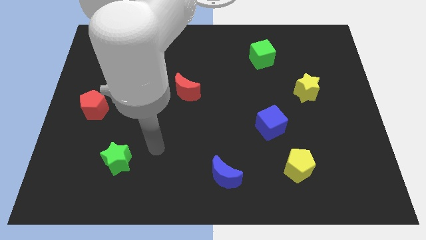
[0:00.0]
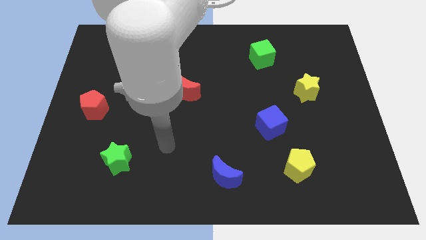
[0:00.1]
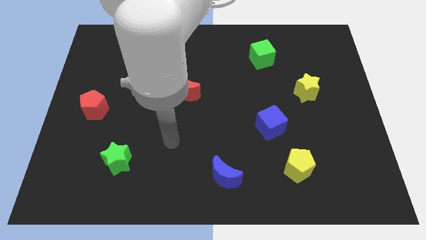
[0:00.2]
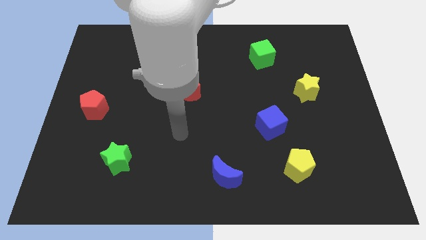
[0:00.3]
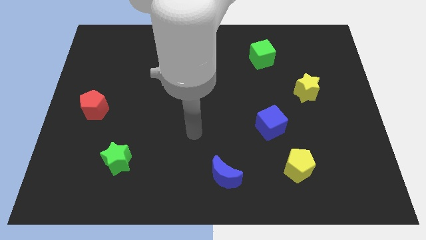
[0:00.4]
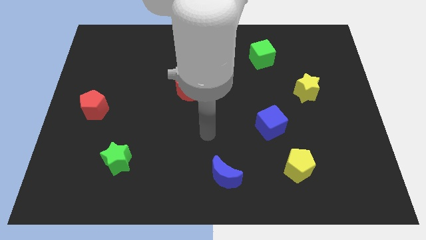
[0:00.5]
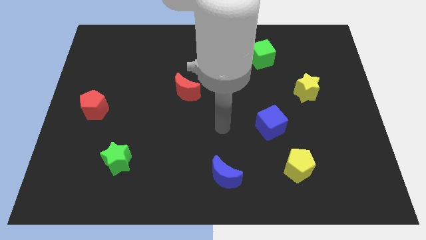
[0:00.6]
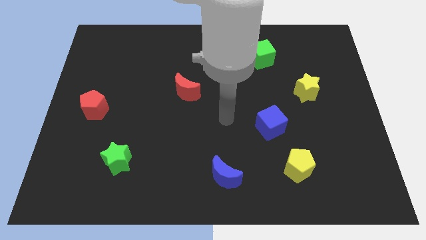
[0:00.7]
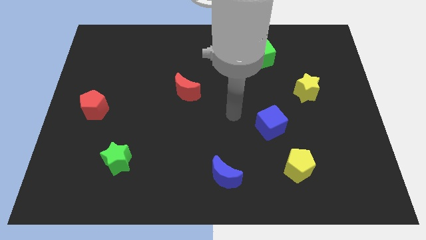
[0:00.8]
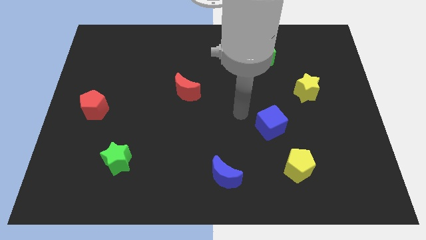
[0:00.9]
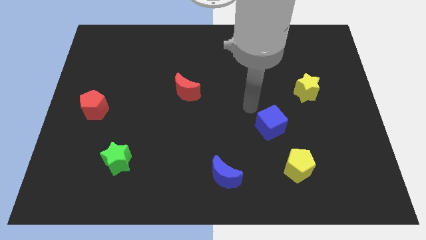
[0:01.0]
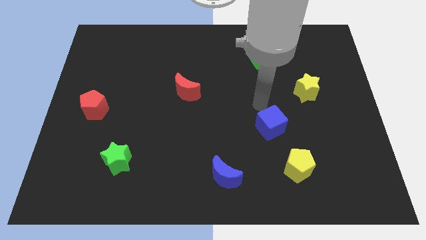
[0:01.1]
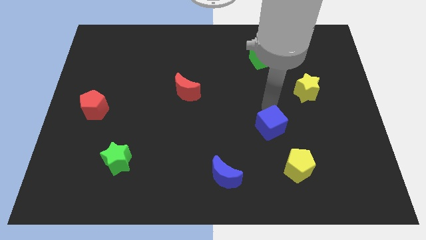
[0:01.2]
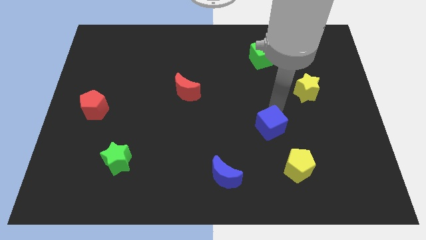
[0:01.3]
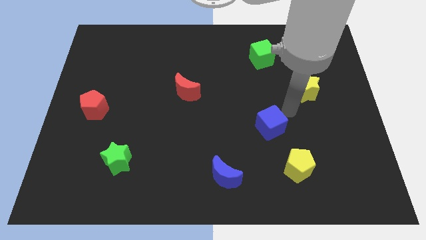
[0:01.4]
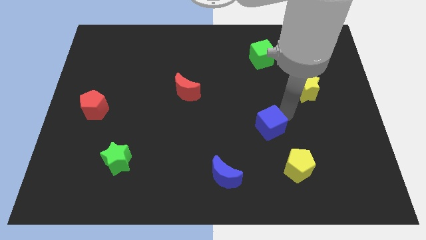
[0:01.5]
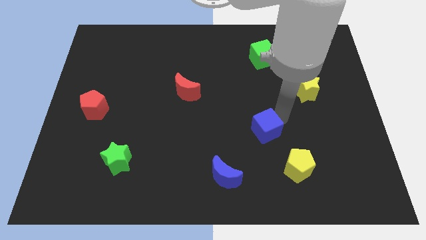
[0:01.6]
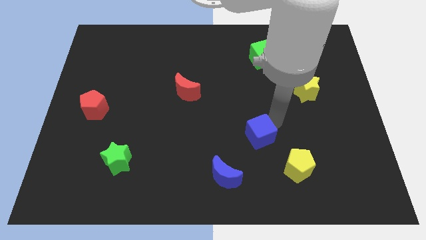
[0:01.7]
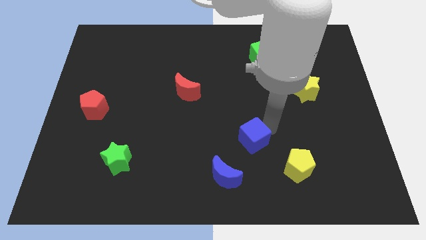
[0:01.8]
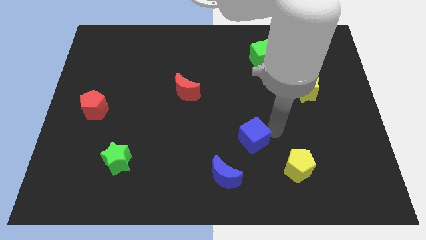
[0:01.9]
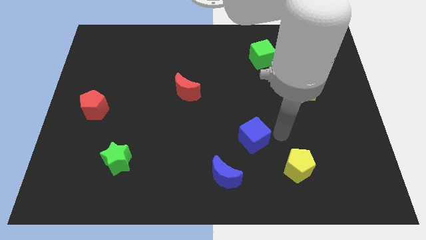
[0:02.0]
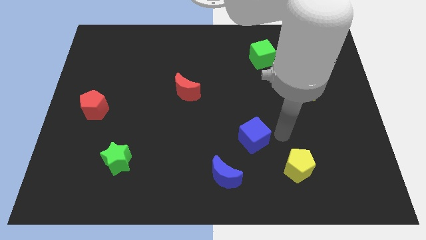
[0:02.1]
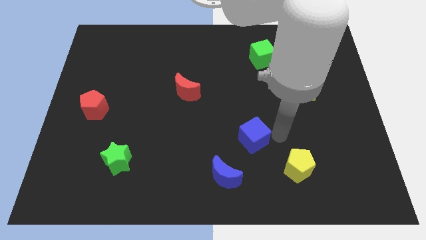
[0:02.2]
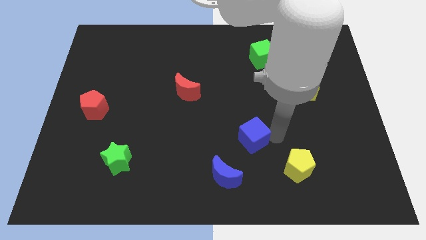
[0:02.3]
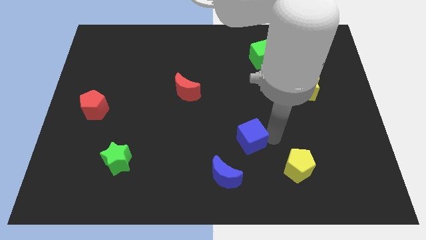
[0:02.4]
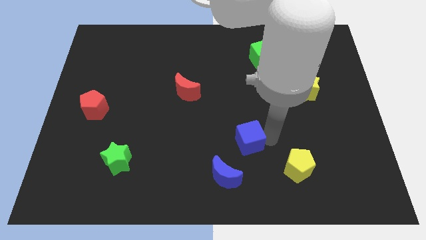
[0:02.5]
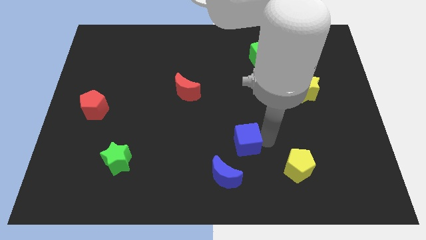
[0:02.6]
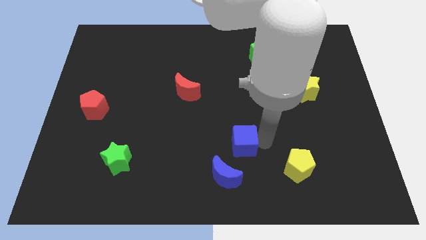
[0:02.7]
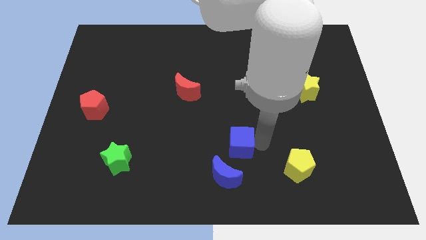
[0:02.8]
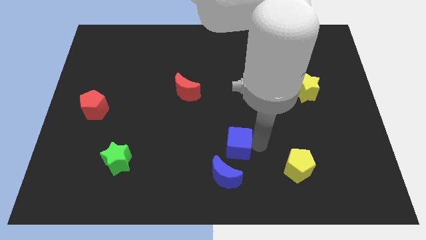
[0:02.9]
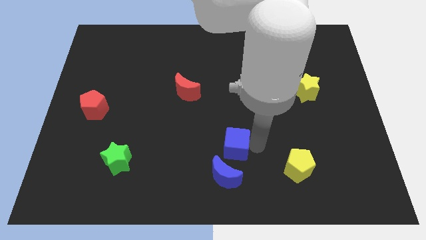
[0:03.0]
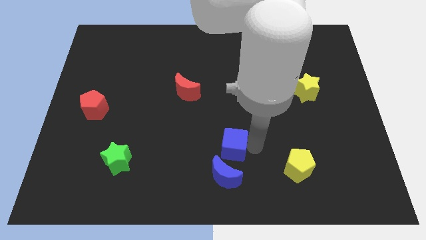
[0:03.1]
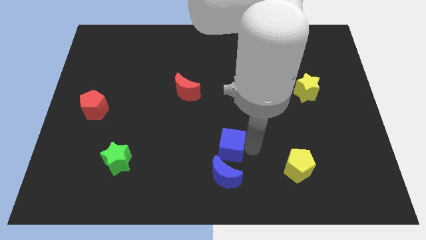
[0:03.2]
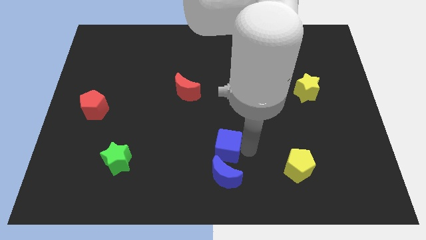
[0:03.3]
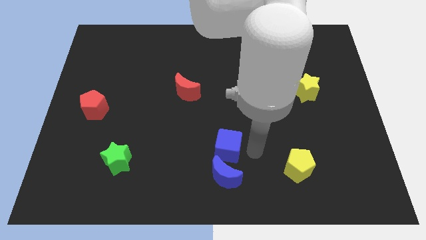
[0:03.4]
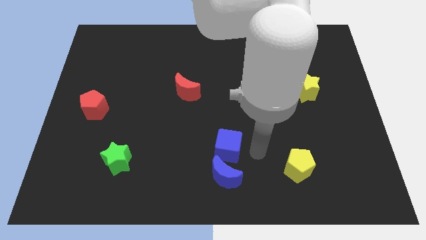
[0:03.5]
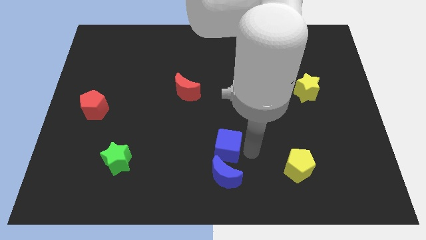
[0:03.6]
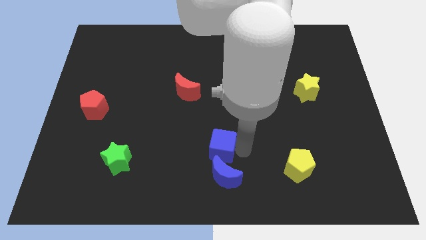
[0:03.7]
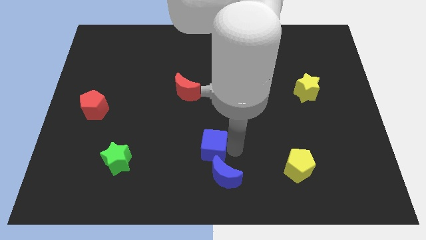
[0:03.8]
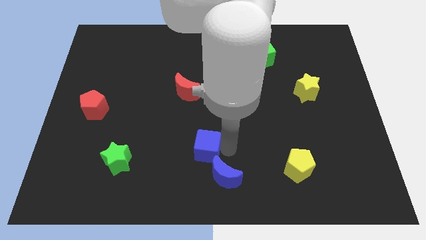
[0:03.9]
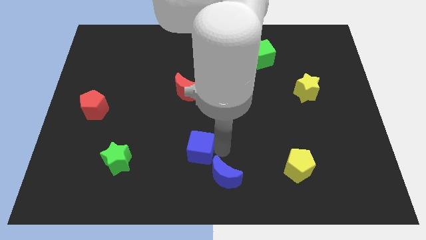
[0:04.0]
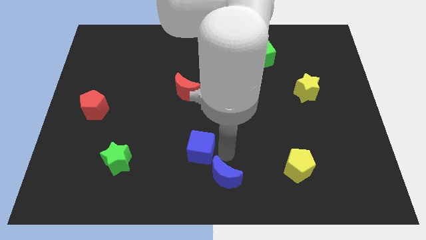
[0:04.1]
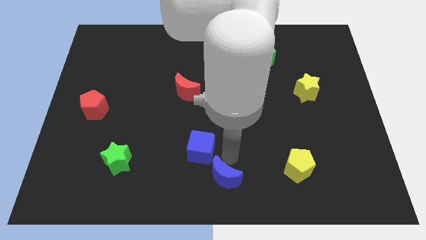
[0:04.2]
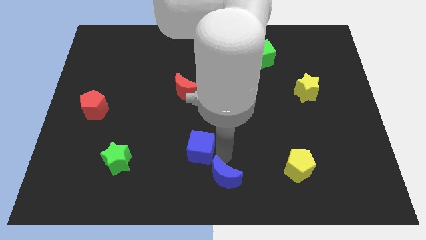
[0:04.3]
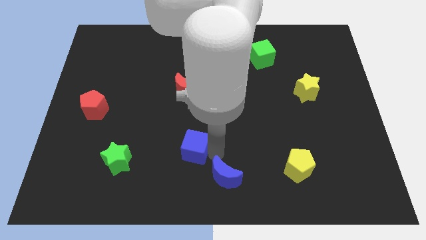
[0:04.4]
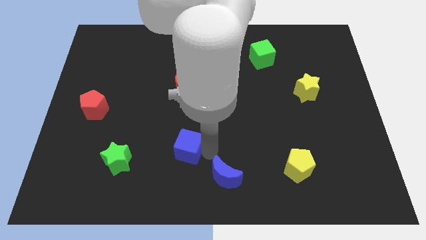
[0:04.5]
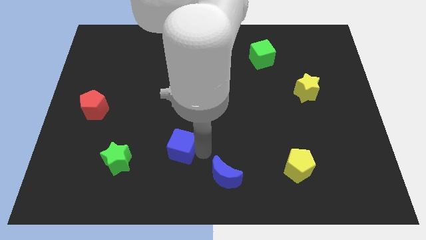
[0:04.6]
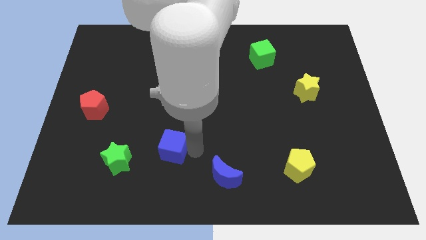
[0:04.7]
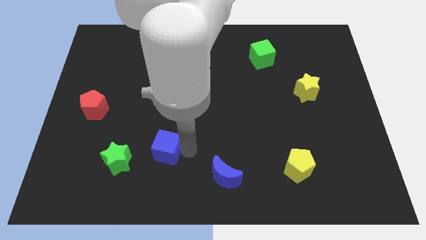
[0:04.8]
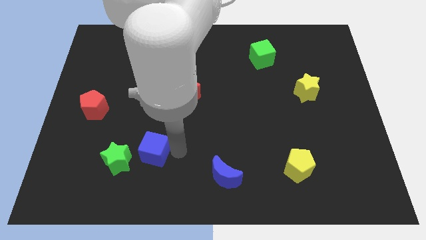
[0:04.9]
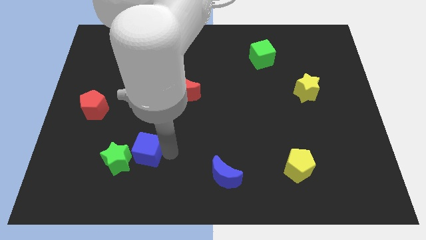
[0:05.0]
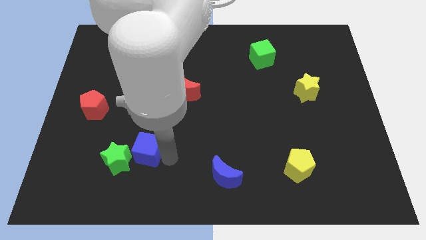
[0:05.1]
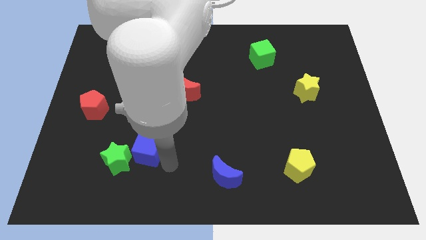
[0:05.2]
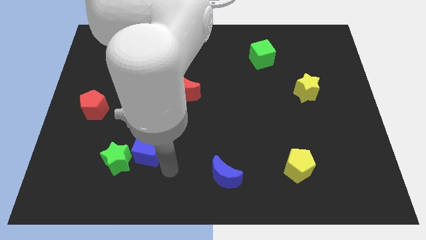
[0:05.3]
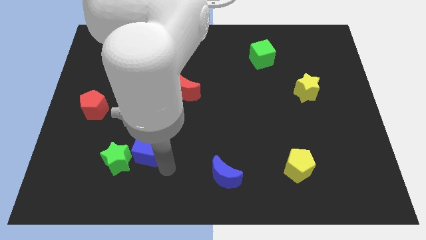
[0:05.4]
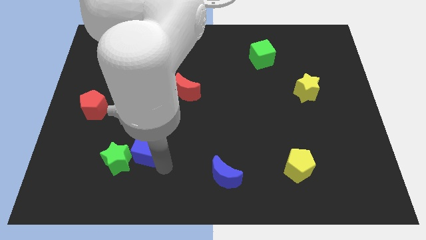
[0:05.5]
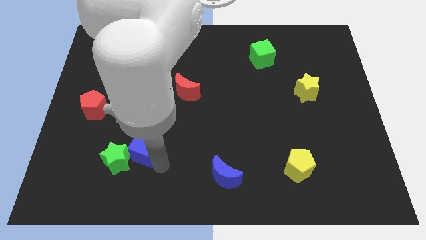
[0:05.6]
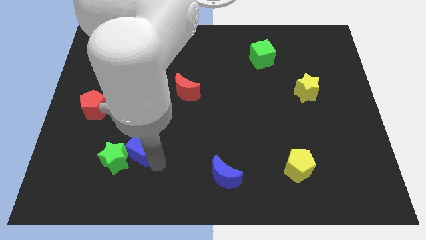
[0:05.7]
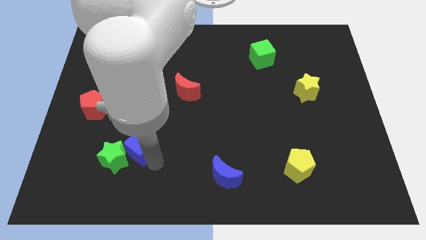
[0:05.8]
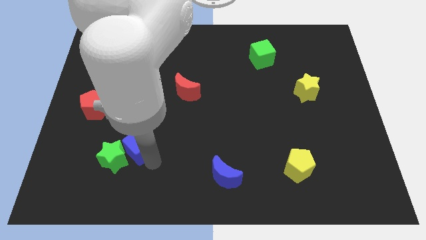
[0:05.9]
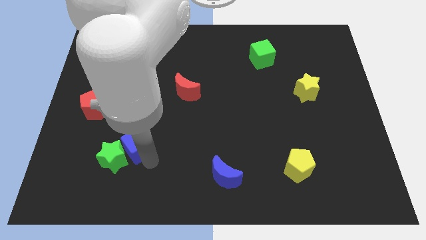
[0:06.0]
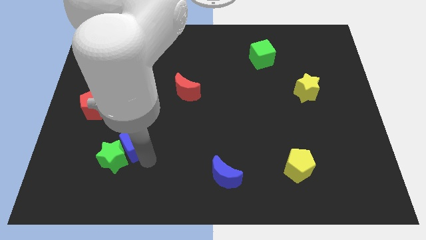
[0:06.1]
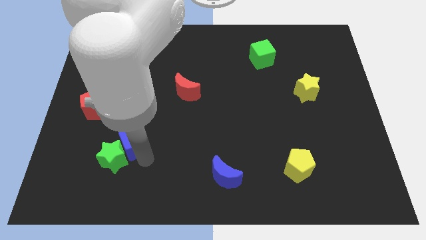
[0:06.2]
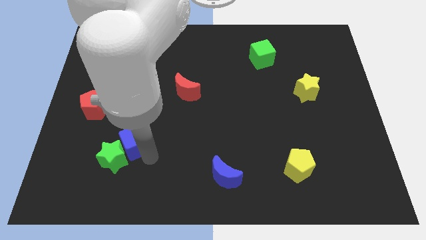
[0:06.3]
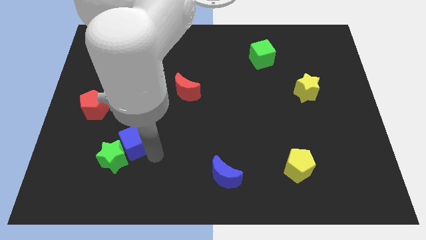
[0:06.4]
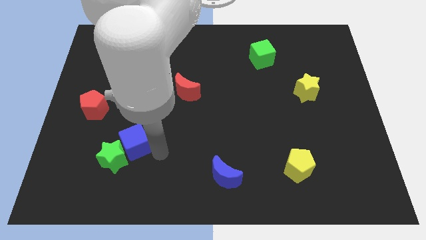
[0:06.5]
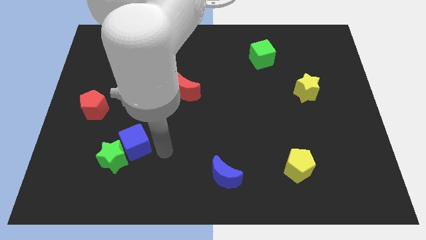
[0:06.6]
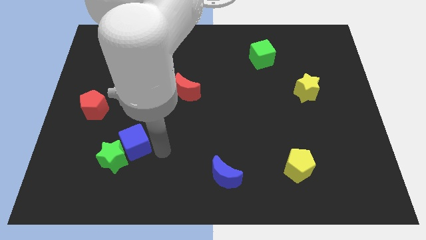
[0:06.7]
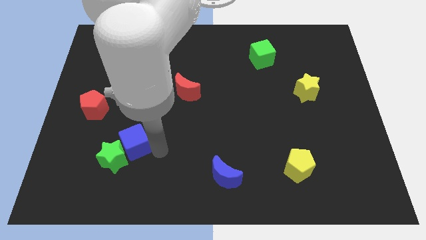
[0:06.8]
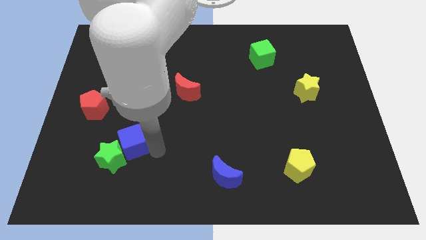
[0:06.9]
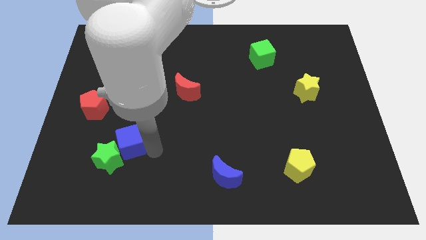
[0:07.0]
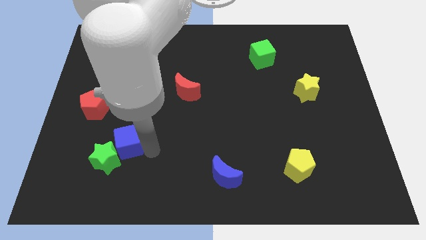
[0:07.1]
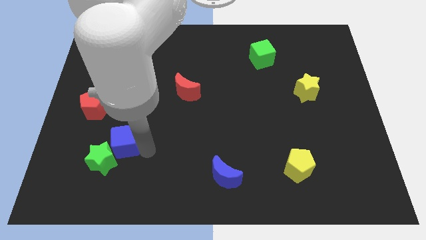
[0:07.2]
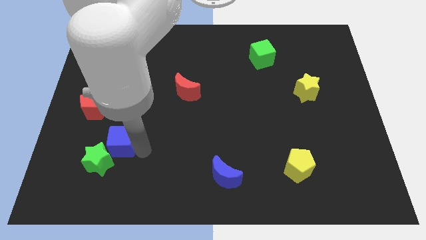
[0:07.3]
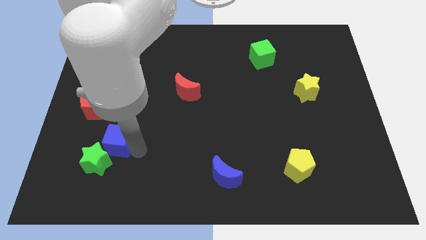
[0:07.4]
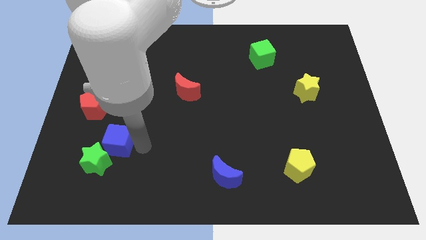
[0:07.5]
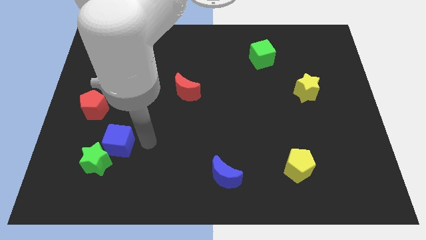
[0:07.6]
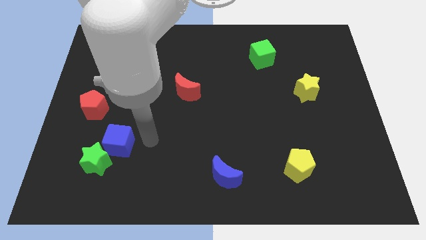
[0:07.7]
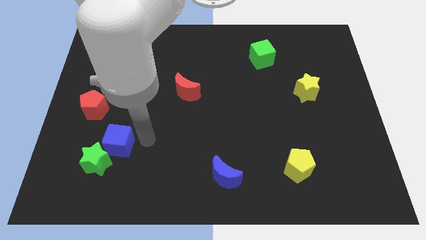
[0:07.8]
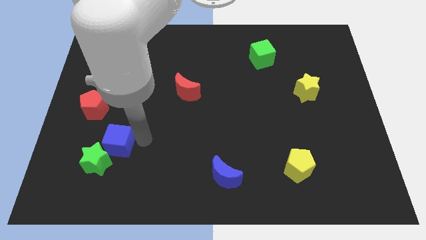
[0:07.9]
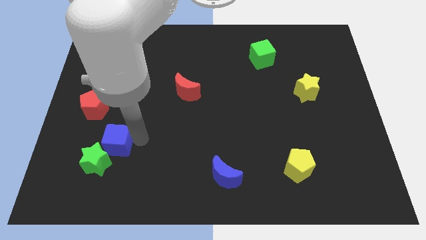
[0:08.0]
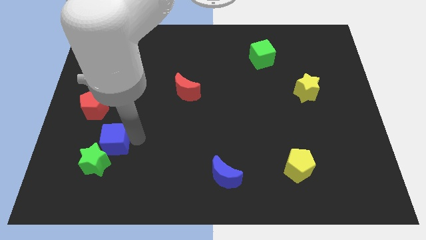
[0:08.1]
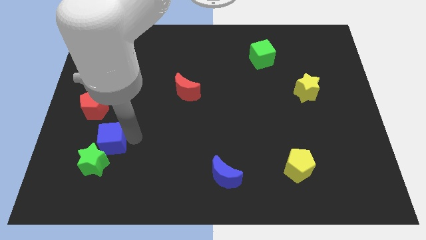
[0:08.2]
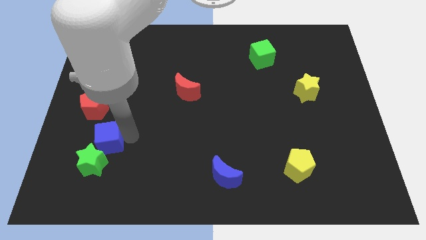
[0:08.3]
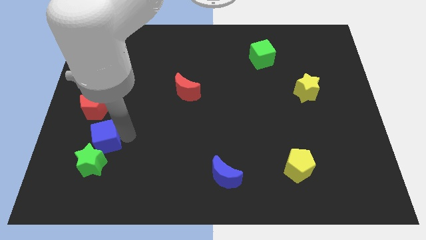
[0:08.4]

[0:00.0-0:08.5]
slide the blue cube to the bottom side of the red pentagon
